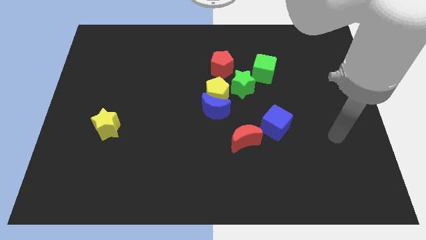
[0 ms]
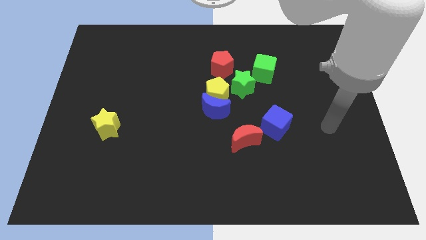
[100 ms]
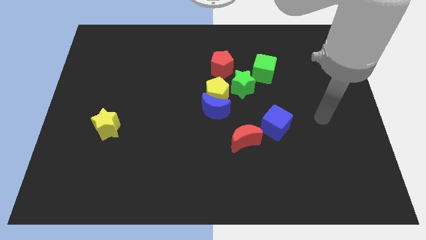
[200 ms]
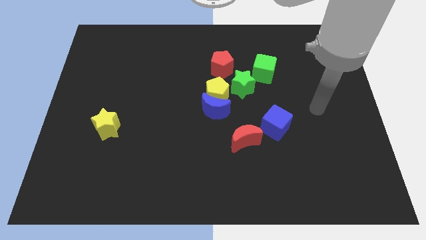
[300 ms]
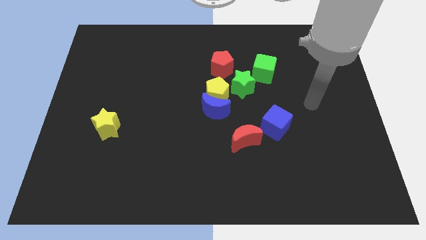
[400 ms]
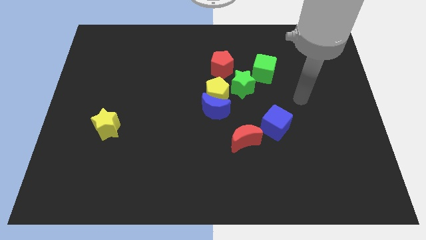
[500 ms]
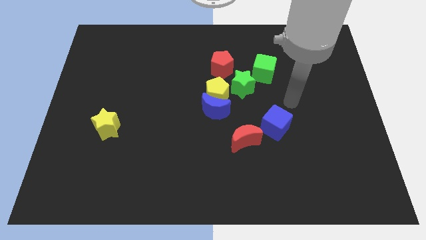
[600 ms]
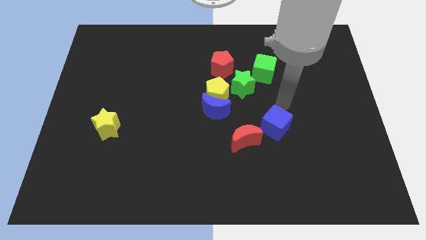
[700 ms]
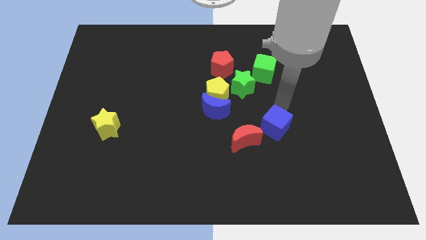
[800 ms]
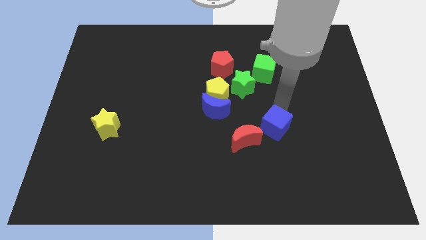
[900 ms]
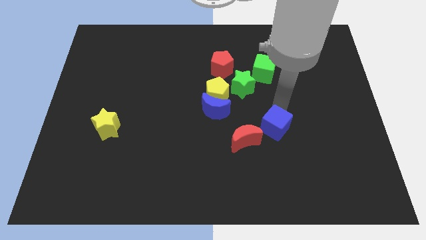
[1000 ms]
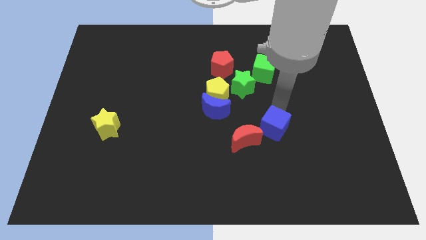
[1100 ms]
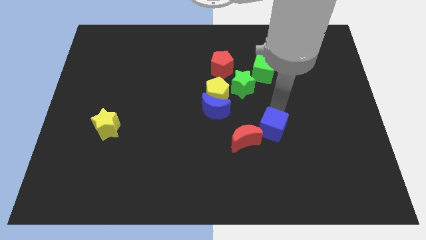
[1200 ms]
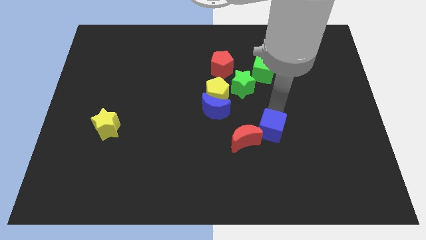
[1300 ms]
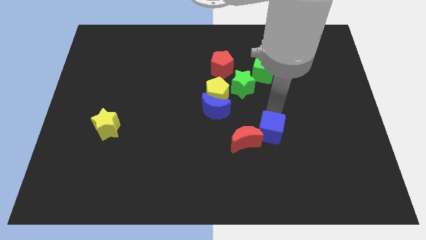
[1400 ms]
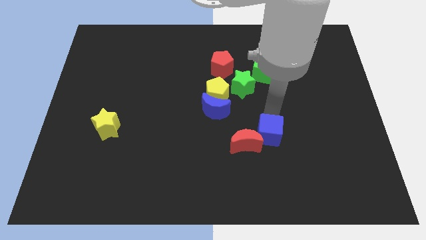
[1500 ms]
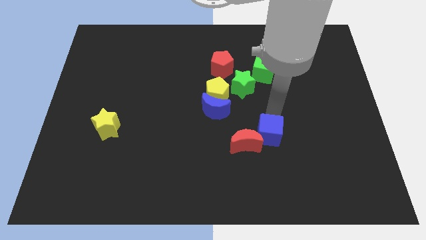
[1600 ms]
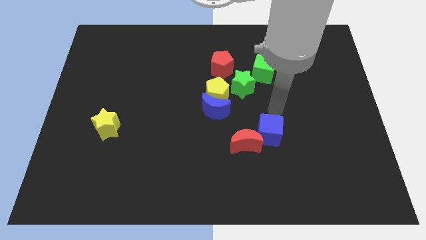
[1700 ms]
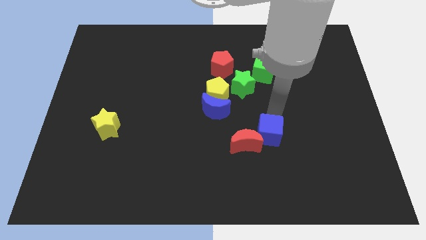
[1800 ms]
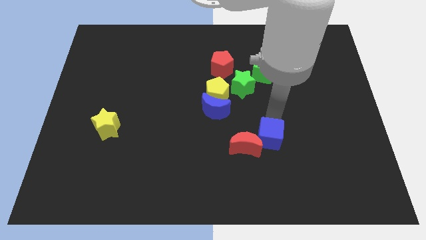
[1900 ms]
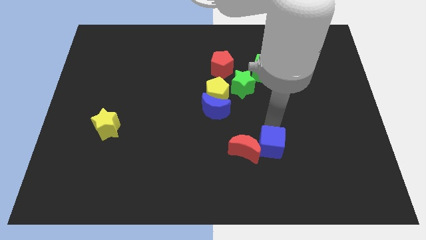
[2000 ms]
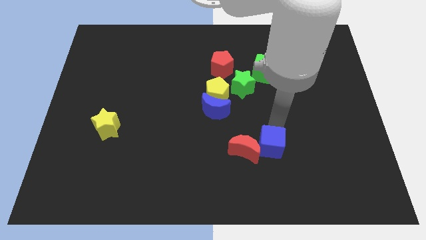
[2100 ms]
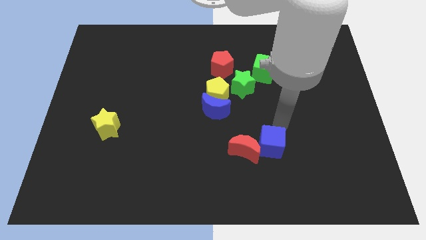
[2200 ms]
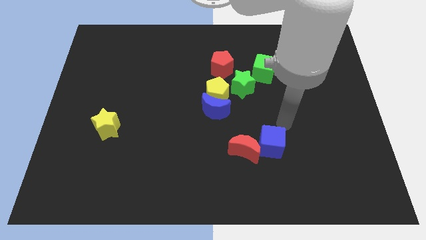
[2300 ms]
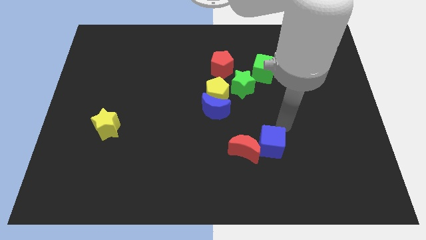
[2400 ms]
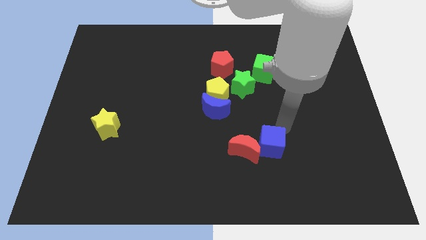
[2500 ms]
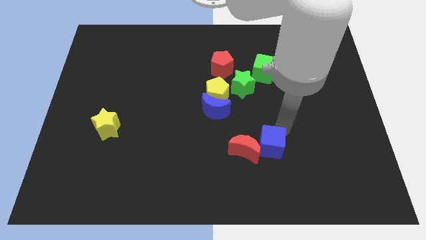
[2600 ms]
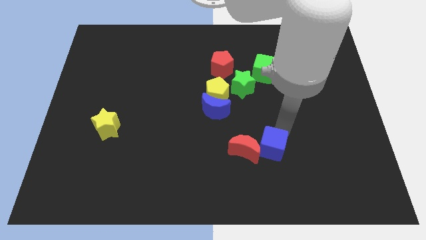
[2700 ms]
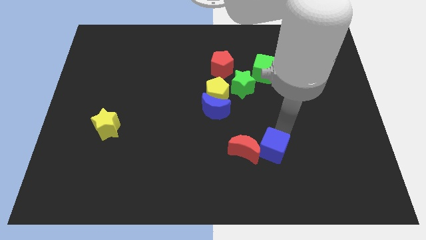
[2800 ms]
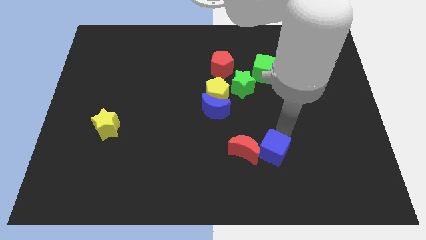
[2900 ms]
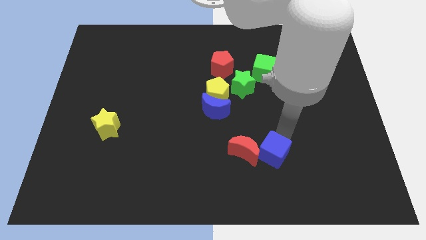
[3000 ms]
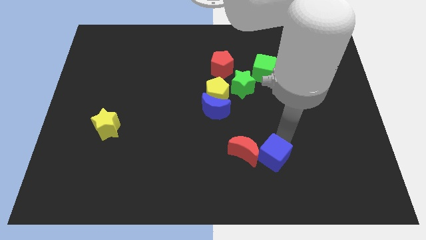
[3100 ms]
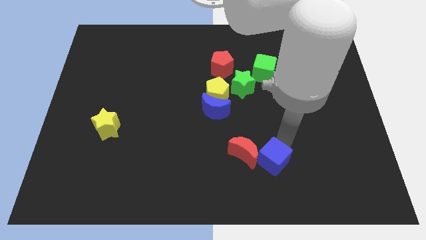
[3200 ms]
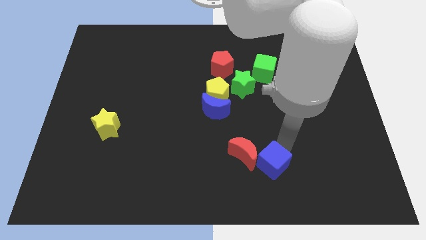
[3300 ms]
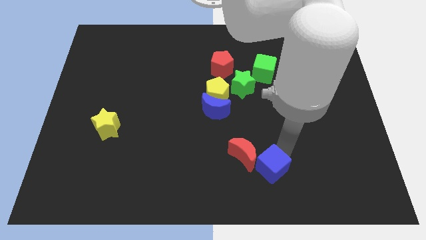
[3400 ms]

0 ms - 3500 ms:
slightly move the blue cube down and then to the left

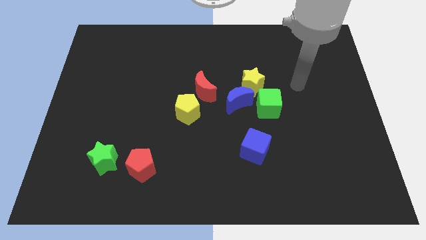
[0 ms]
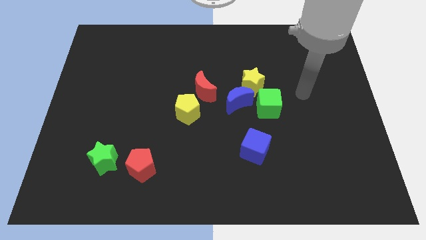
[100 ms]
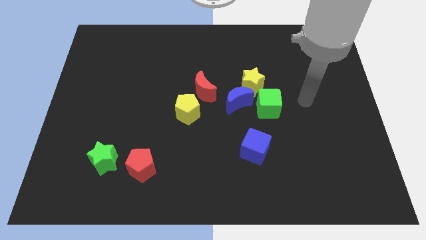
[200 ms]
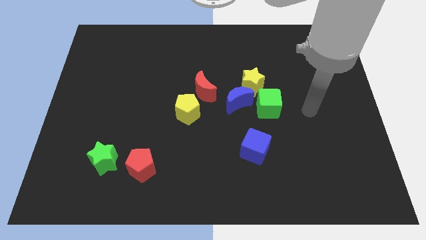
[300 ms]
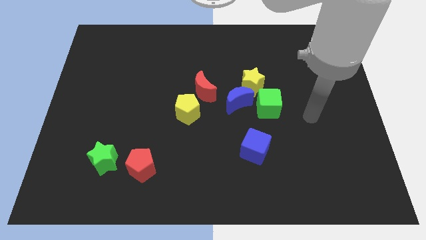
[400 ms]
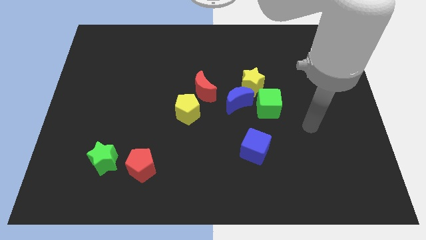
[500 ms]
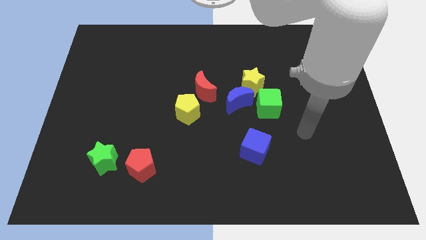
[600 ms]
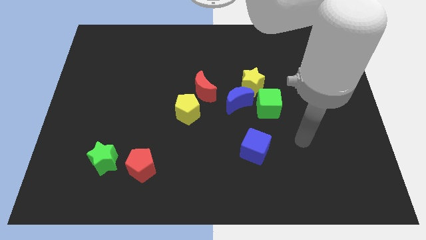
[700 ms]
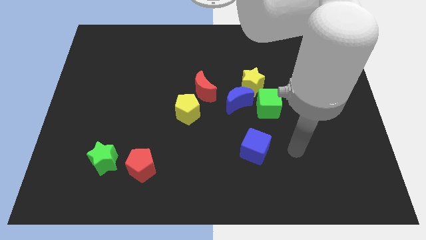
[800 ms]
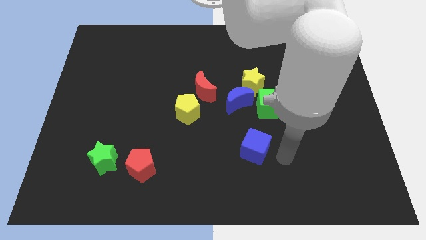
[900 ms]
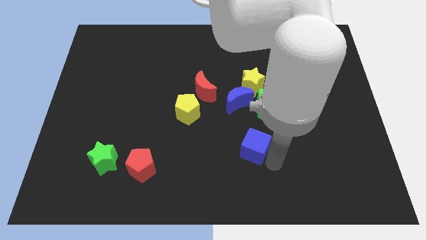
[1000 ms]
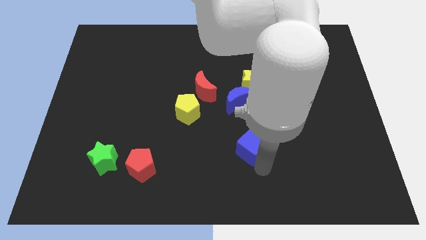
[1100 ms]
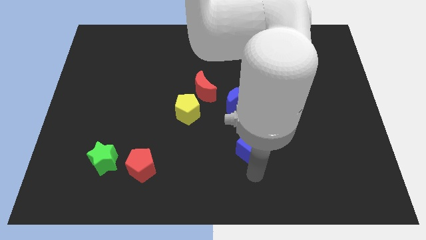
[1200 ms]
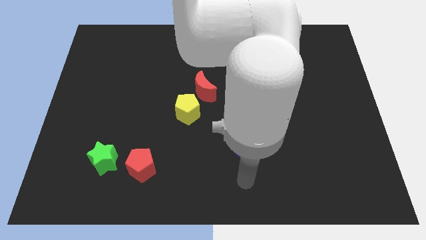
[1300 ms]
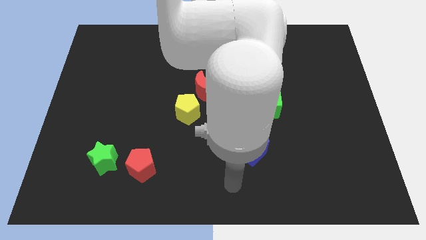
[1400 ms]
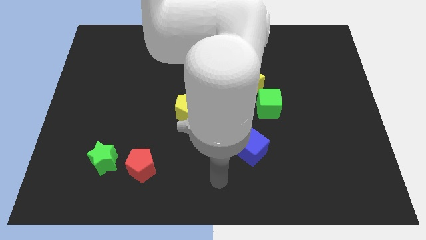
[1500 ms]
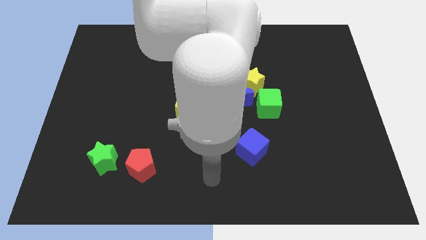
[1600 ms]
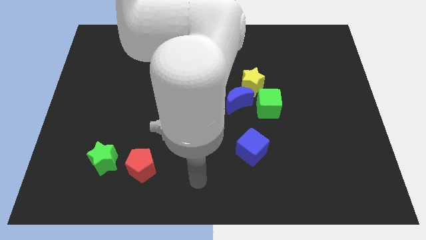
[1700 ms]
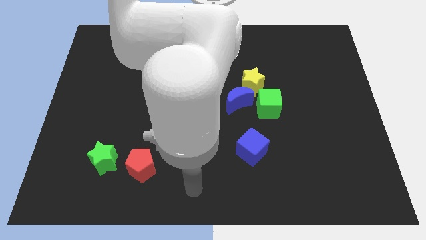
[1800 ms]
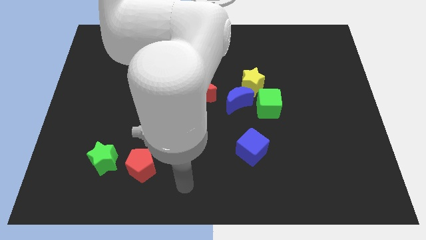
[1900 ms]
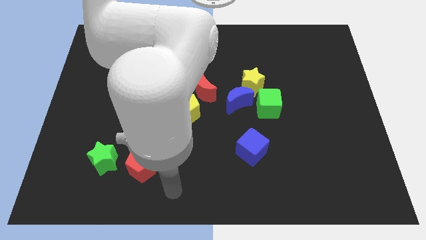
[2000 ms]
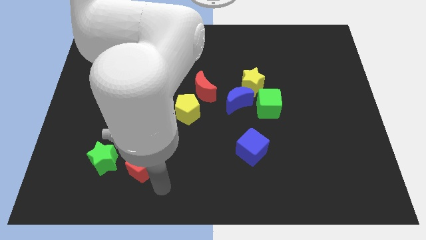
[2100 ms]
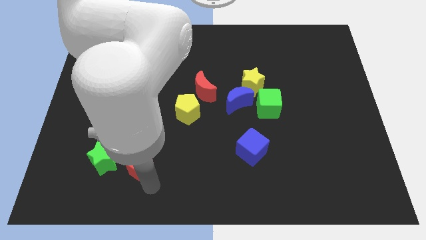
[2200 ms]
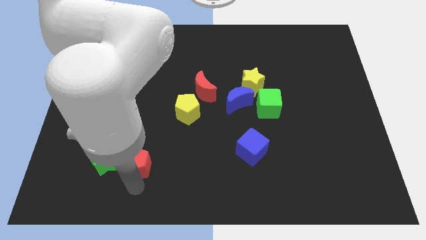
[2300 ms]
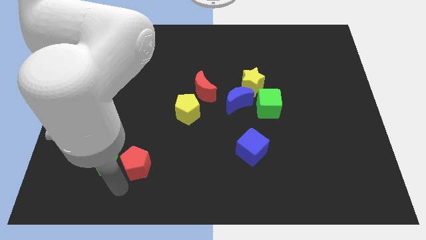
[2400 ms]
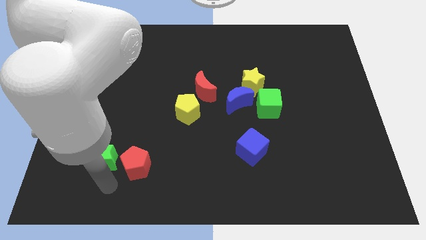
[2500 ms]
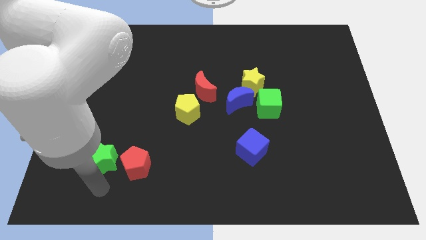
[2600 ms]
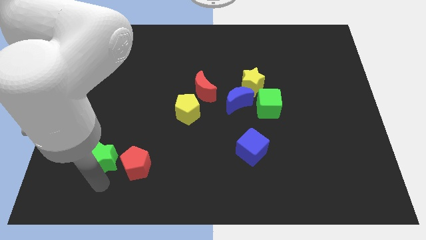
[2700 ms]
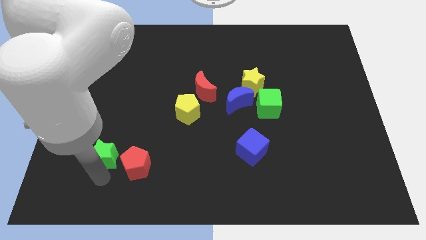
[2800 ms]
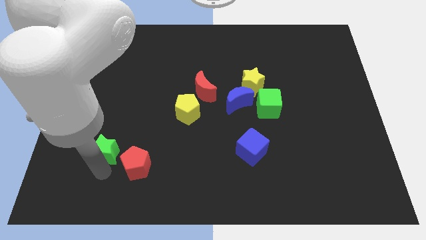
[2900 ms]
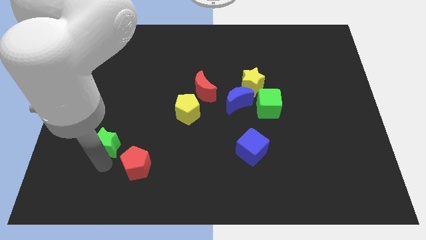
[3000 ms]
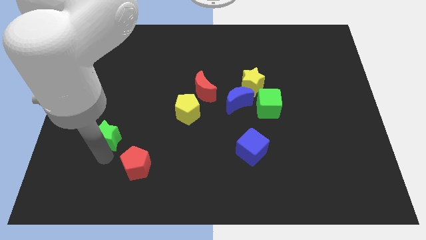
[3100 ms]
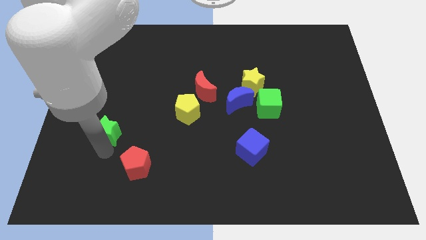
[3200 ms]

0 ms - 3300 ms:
slightly slide the green star upwards

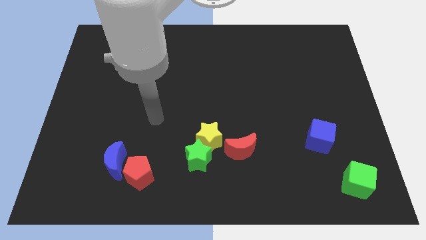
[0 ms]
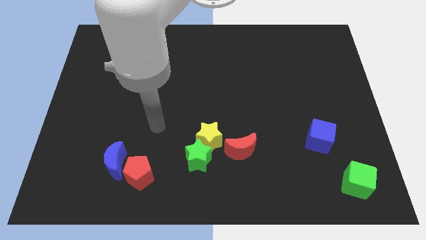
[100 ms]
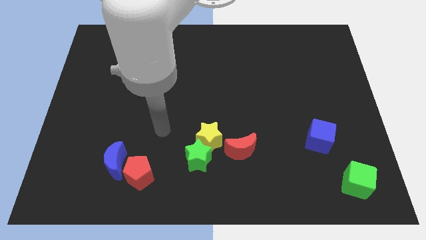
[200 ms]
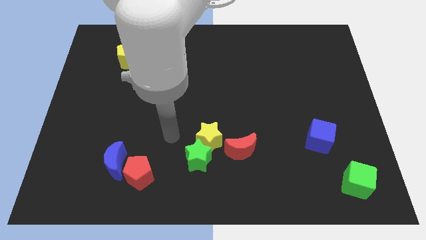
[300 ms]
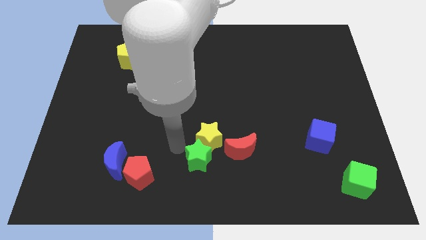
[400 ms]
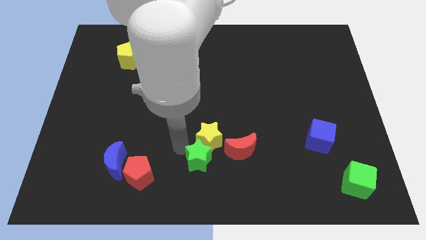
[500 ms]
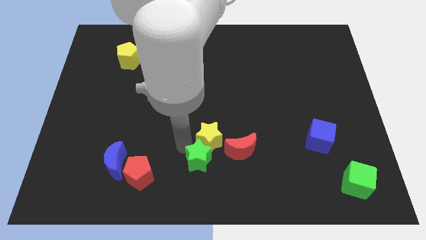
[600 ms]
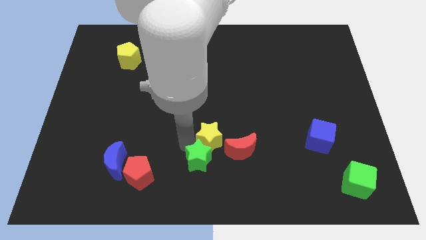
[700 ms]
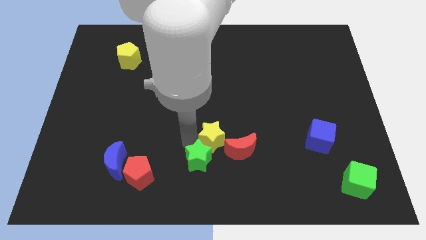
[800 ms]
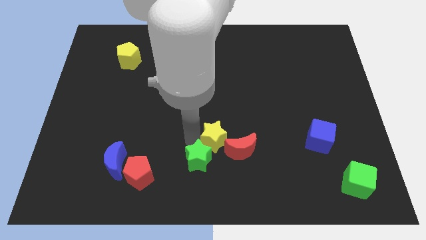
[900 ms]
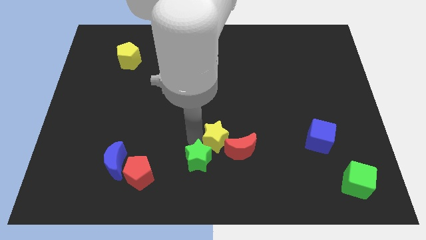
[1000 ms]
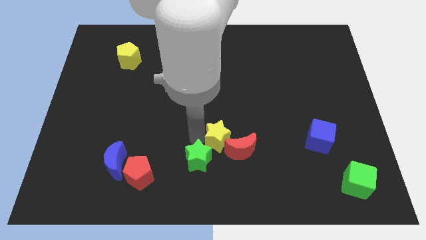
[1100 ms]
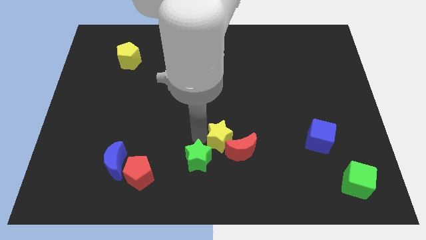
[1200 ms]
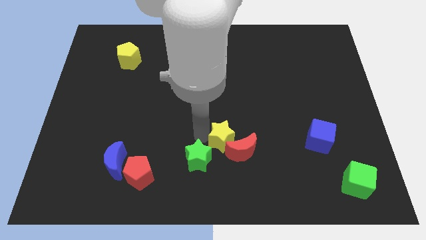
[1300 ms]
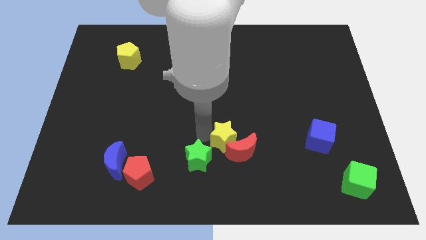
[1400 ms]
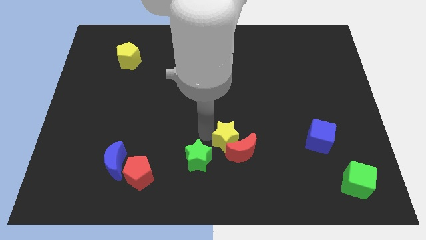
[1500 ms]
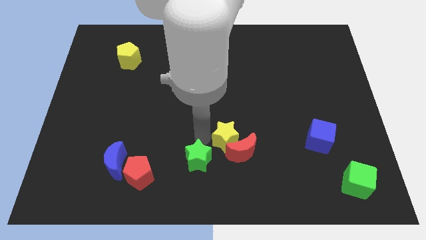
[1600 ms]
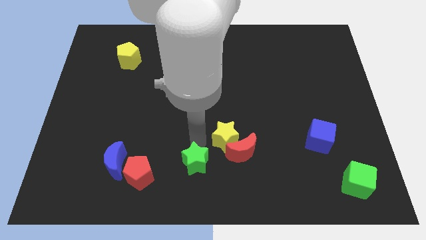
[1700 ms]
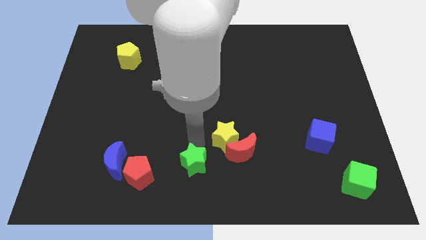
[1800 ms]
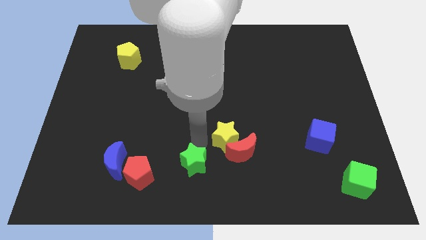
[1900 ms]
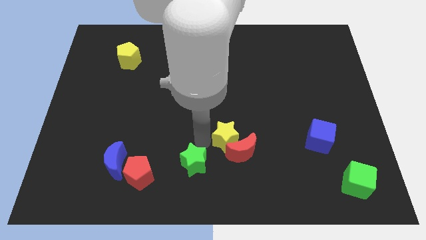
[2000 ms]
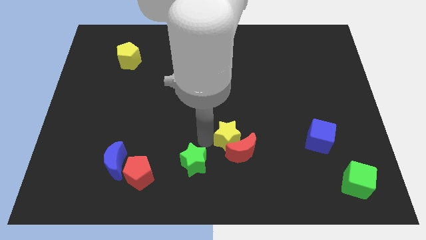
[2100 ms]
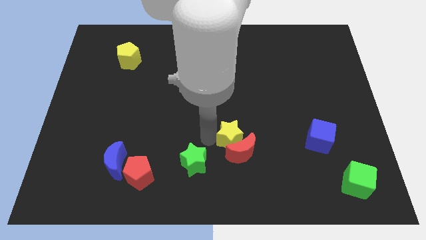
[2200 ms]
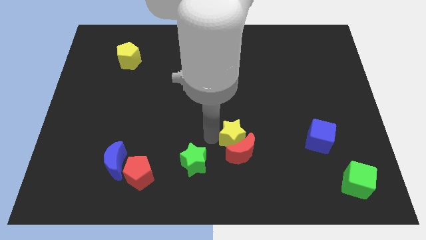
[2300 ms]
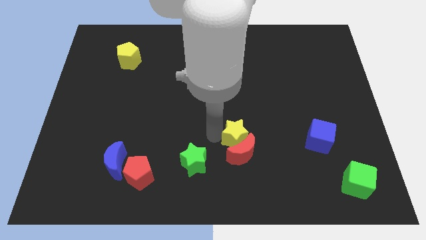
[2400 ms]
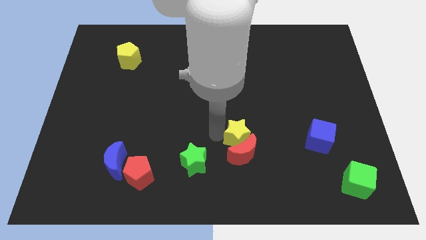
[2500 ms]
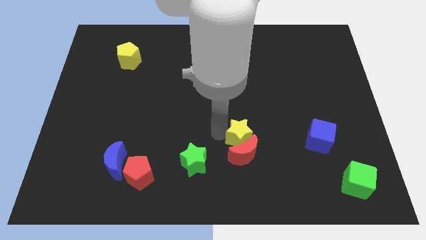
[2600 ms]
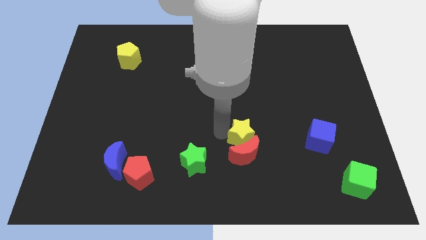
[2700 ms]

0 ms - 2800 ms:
push the yellow star right a bit
